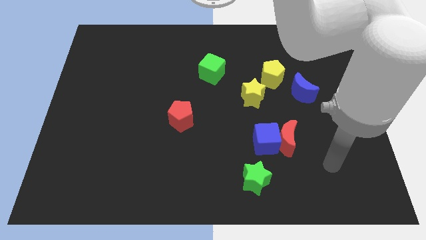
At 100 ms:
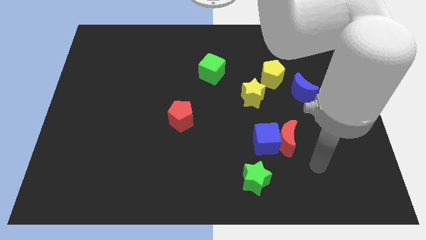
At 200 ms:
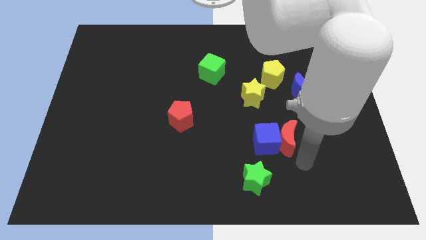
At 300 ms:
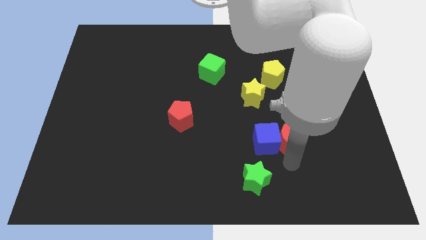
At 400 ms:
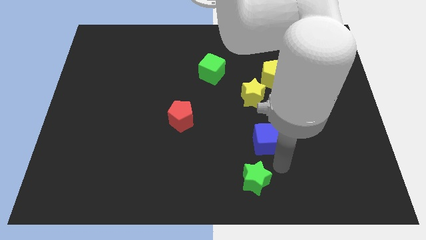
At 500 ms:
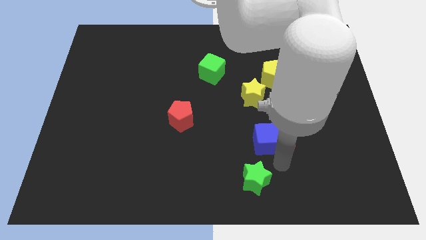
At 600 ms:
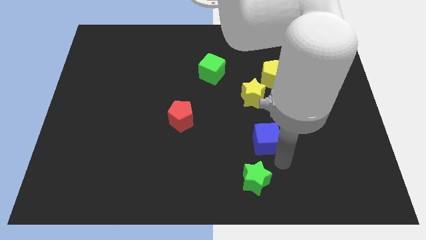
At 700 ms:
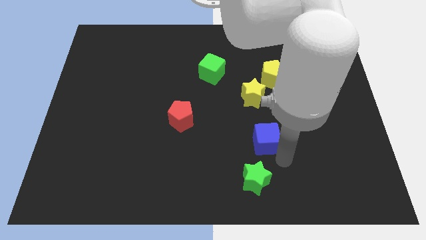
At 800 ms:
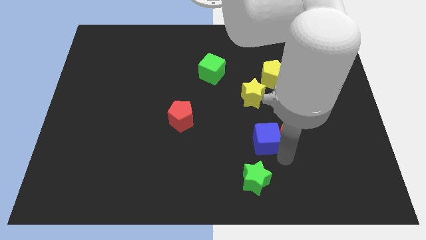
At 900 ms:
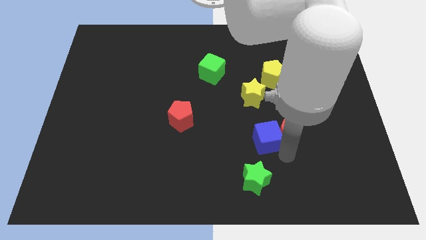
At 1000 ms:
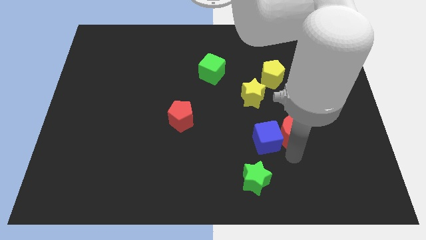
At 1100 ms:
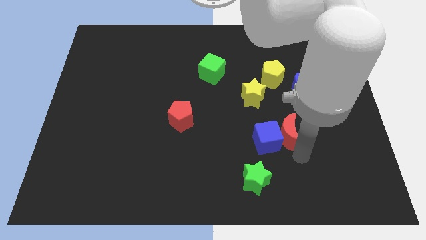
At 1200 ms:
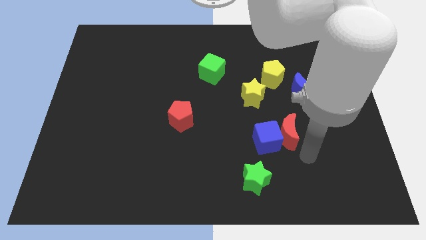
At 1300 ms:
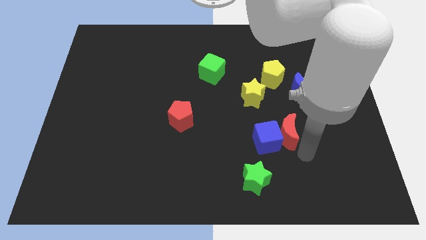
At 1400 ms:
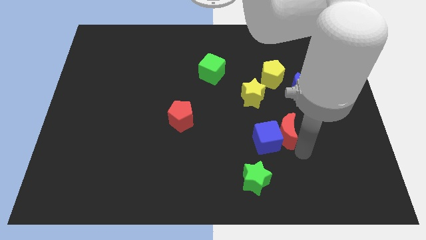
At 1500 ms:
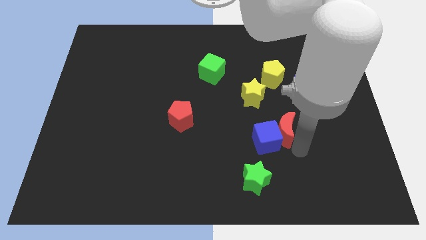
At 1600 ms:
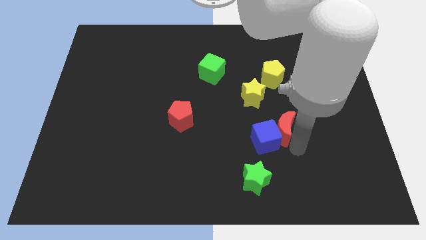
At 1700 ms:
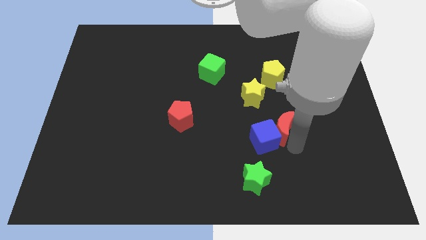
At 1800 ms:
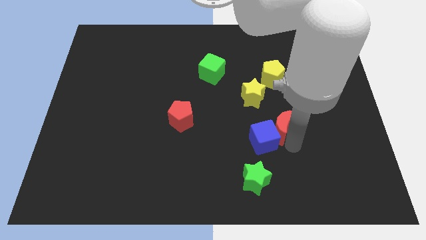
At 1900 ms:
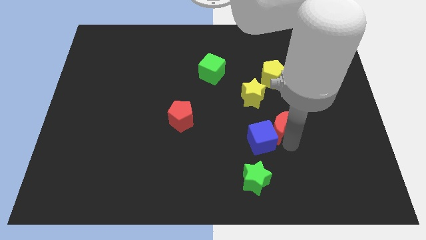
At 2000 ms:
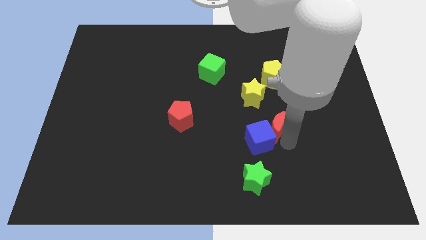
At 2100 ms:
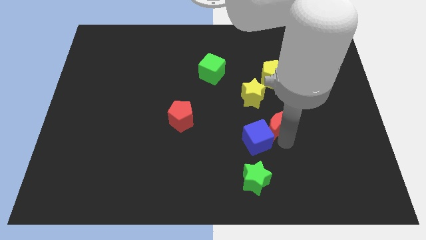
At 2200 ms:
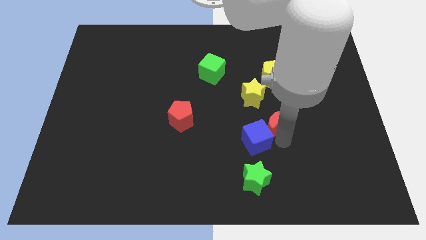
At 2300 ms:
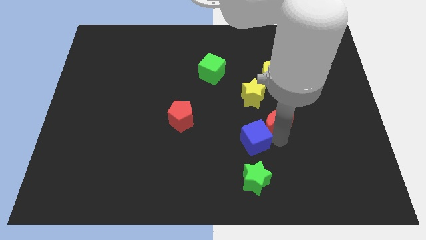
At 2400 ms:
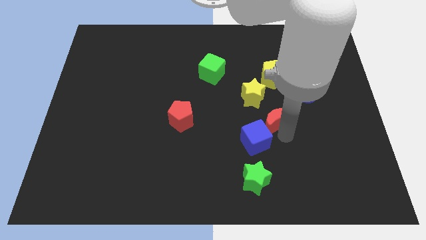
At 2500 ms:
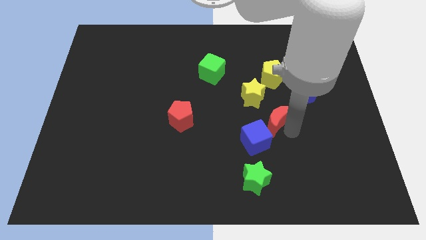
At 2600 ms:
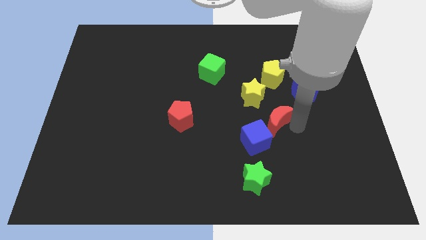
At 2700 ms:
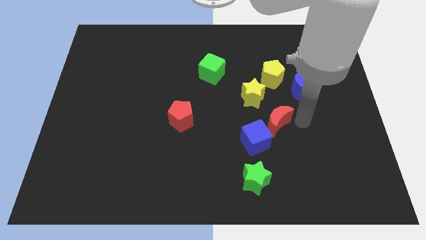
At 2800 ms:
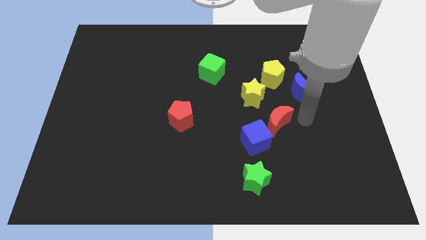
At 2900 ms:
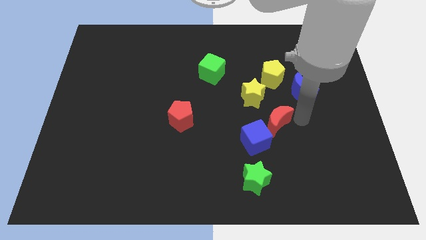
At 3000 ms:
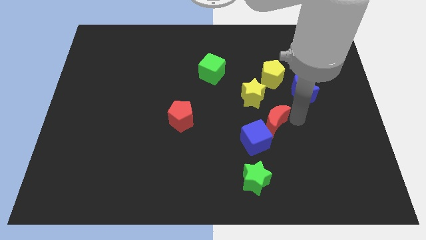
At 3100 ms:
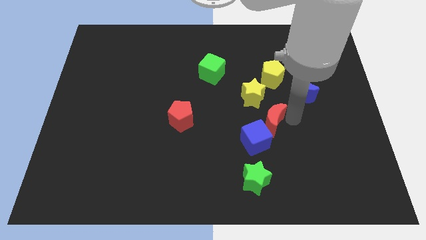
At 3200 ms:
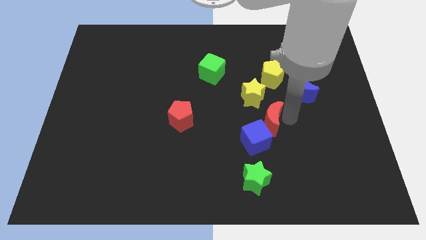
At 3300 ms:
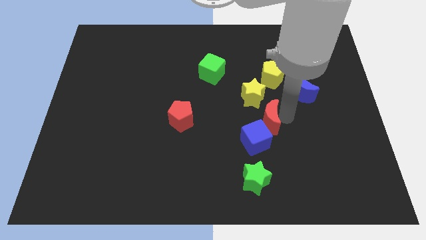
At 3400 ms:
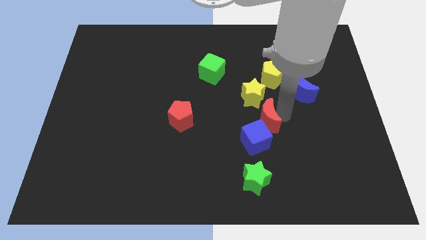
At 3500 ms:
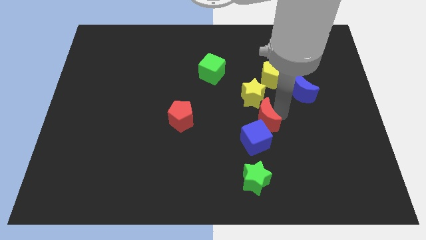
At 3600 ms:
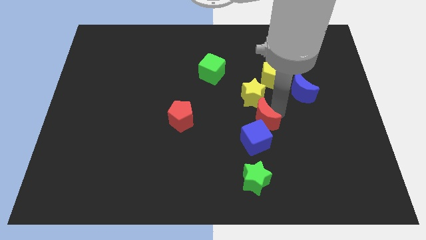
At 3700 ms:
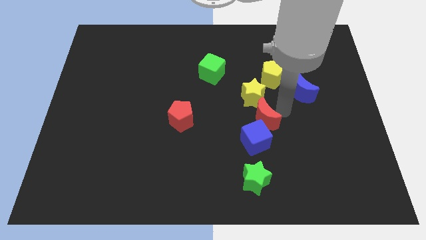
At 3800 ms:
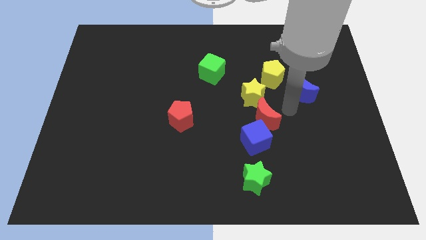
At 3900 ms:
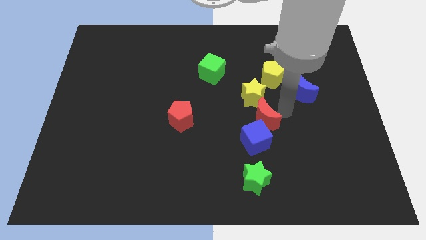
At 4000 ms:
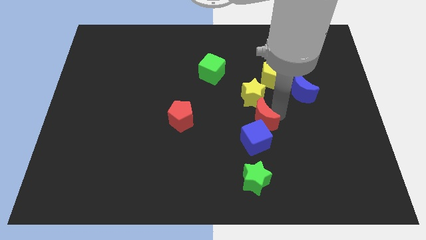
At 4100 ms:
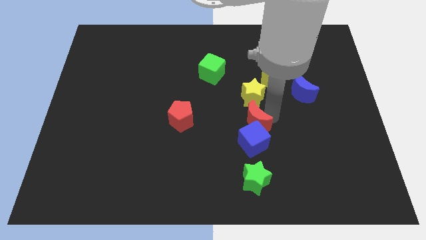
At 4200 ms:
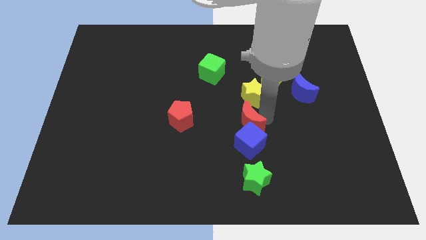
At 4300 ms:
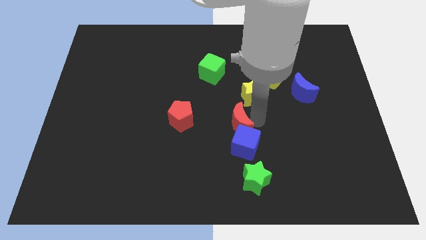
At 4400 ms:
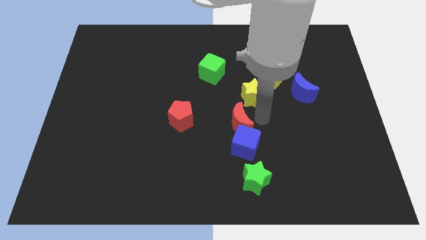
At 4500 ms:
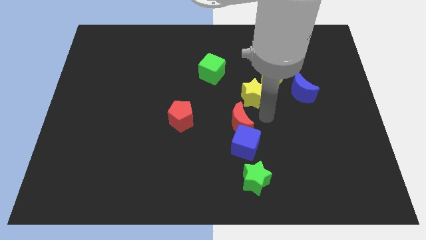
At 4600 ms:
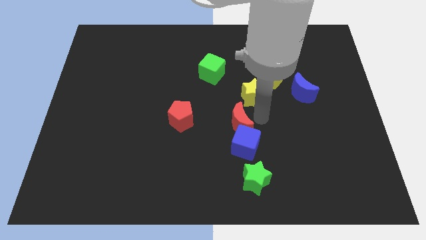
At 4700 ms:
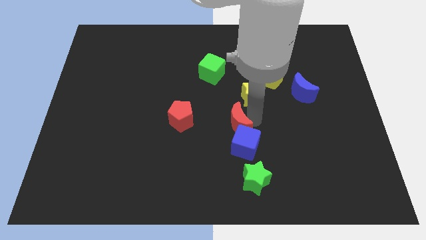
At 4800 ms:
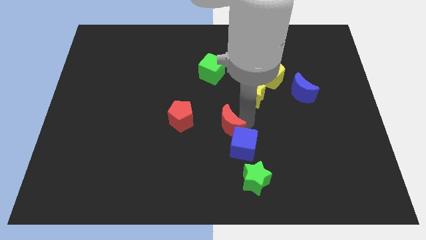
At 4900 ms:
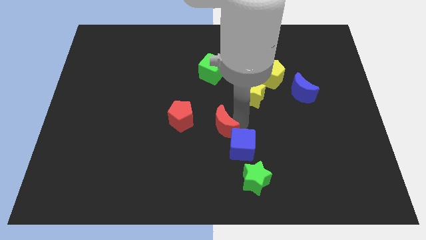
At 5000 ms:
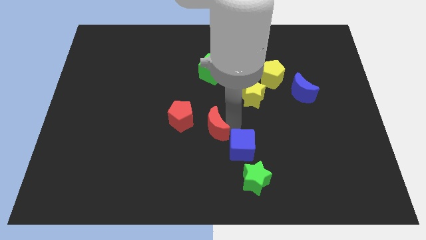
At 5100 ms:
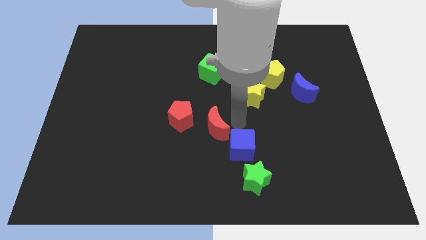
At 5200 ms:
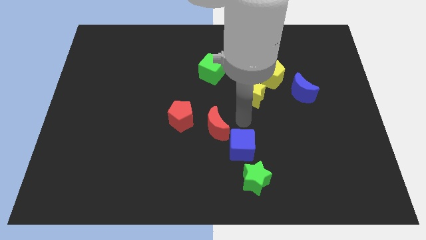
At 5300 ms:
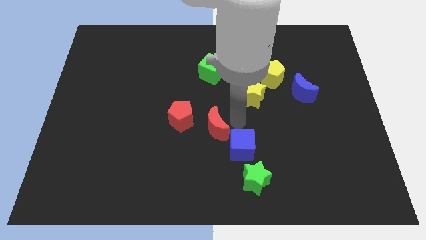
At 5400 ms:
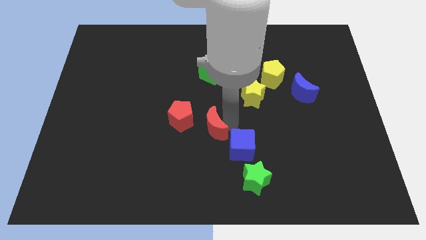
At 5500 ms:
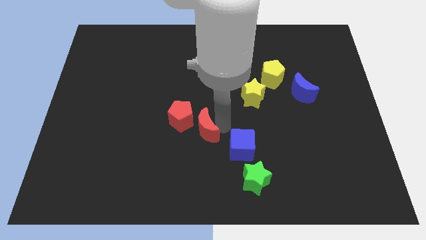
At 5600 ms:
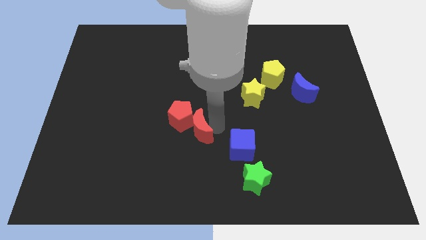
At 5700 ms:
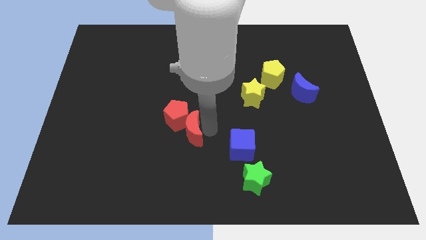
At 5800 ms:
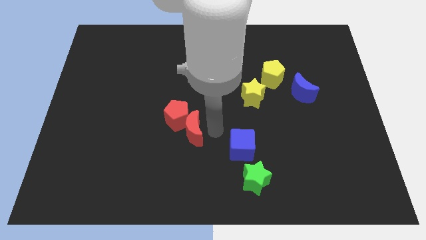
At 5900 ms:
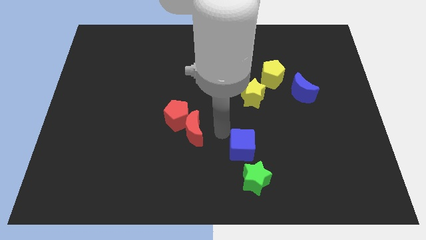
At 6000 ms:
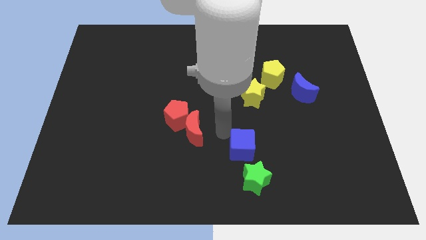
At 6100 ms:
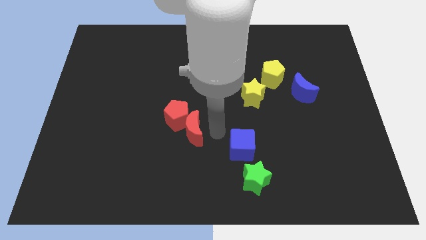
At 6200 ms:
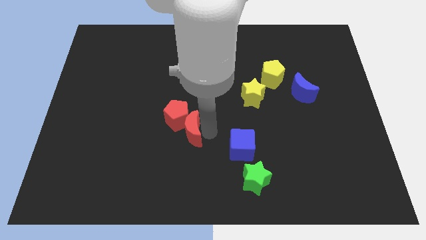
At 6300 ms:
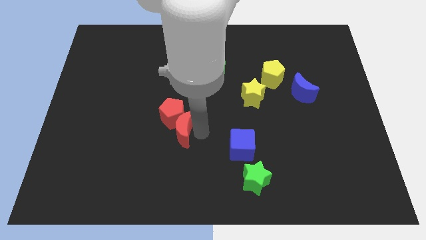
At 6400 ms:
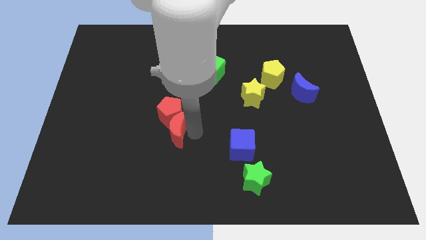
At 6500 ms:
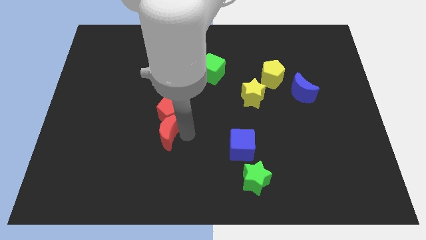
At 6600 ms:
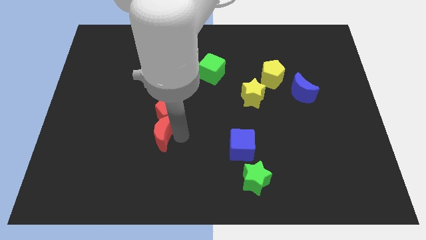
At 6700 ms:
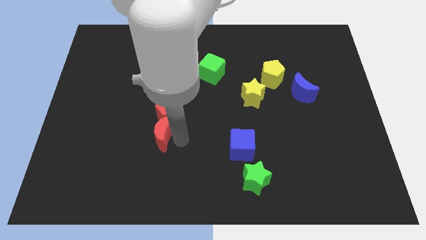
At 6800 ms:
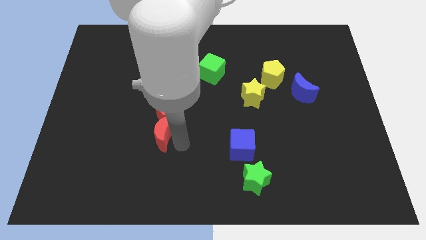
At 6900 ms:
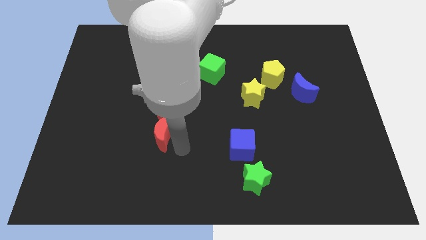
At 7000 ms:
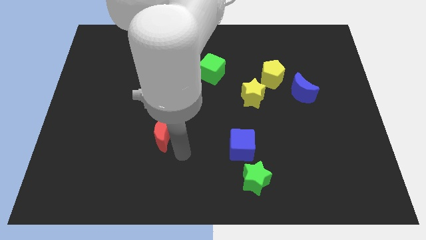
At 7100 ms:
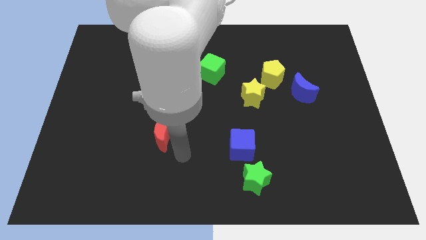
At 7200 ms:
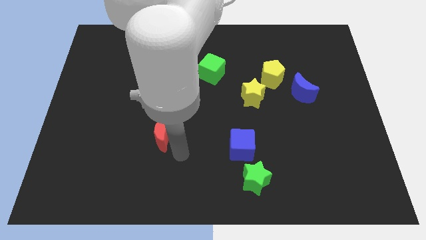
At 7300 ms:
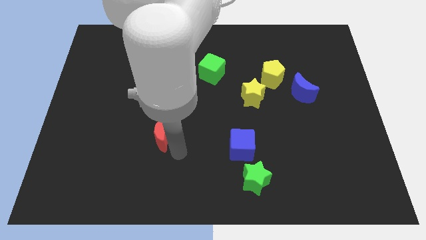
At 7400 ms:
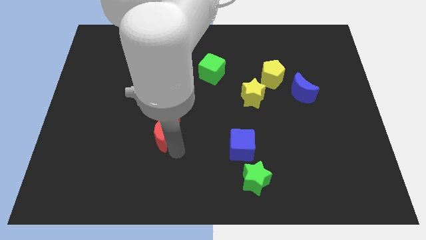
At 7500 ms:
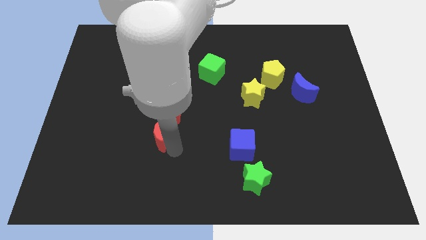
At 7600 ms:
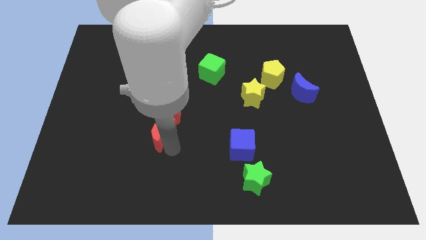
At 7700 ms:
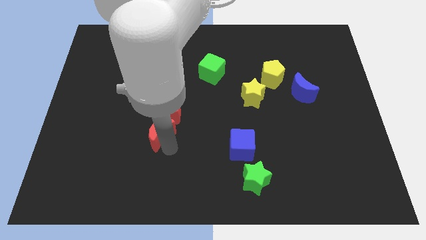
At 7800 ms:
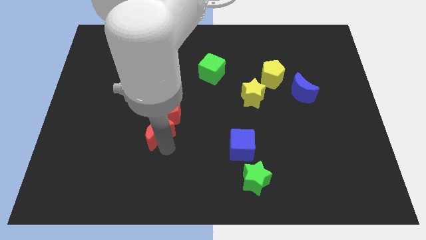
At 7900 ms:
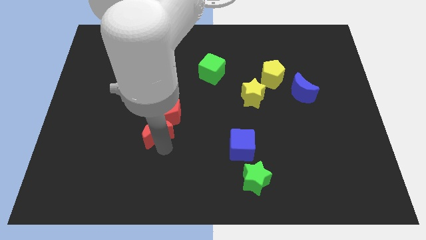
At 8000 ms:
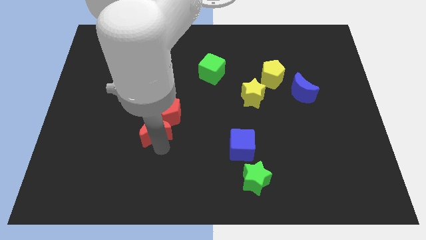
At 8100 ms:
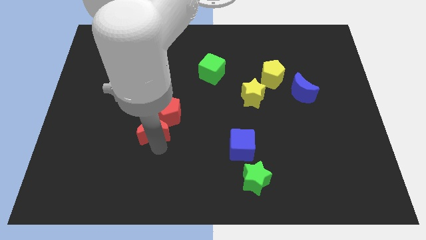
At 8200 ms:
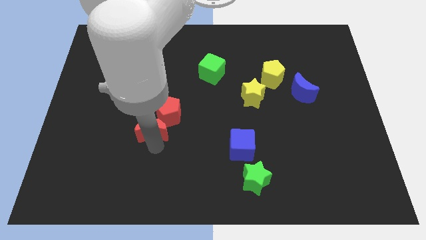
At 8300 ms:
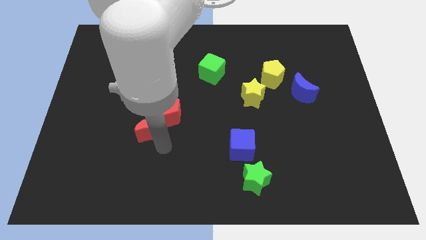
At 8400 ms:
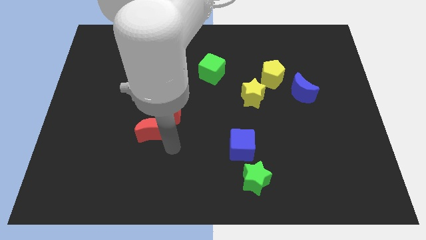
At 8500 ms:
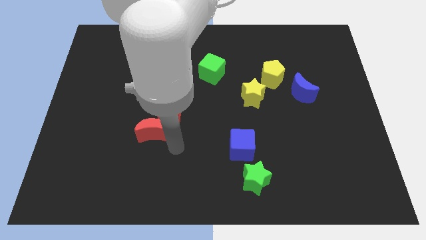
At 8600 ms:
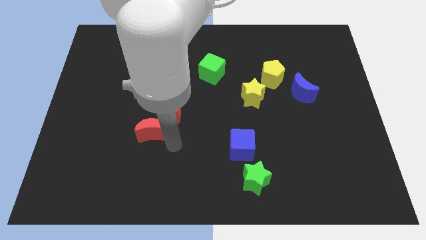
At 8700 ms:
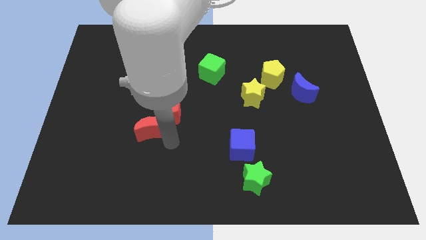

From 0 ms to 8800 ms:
slide the red moon left of the red pentagon
